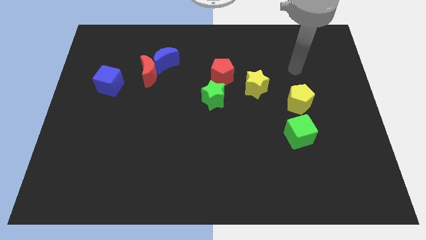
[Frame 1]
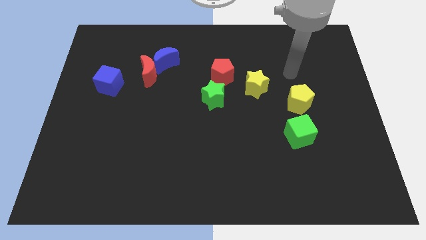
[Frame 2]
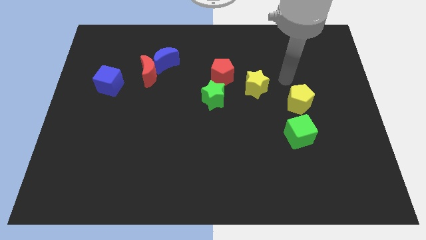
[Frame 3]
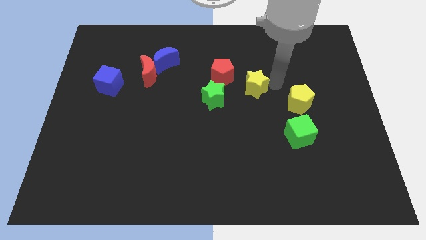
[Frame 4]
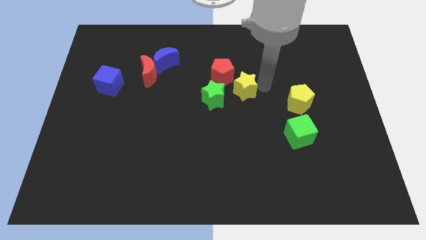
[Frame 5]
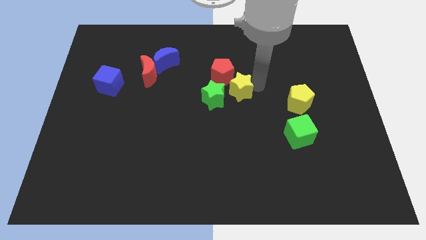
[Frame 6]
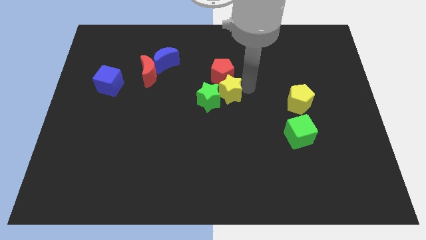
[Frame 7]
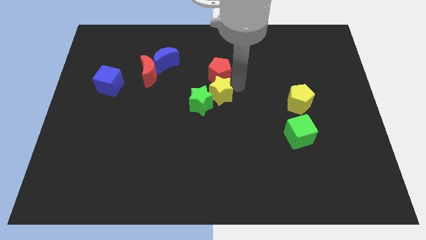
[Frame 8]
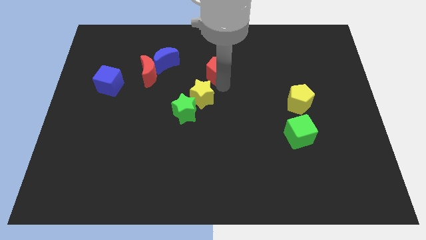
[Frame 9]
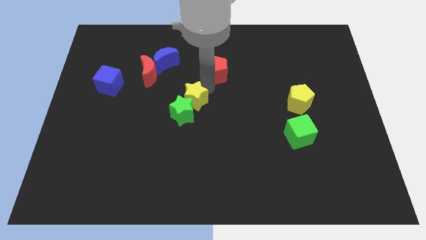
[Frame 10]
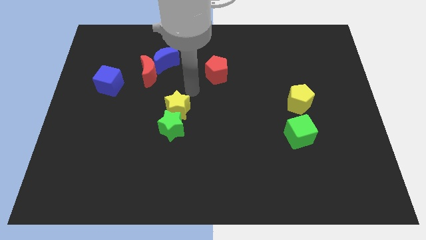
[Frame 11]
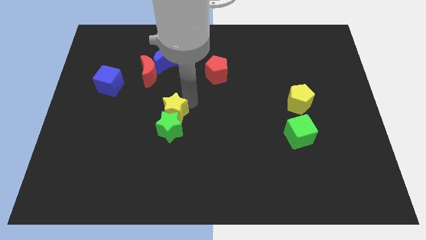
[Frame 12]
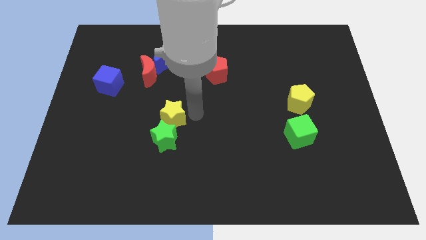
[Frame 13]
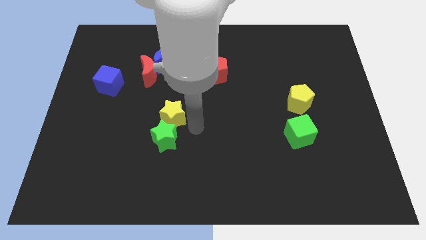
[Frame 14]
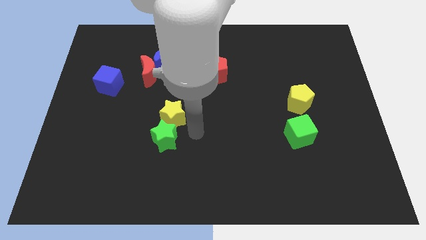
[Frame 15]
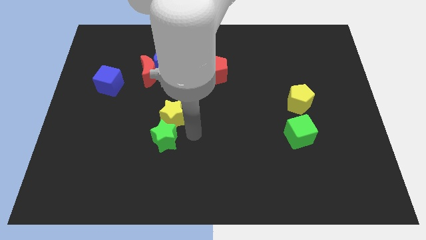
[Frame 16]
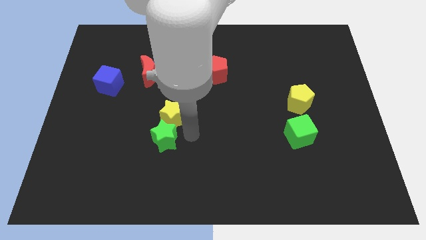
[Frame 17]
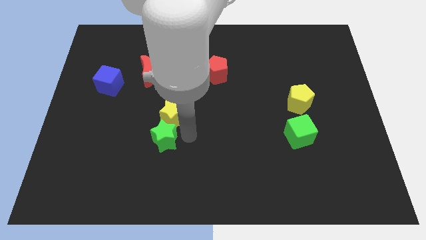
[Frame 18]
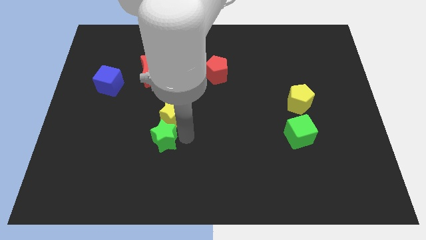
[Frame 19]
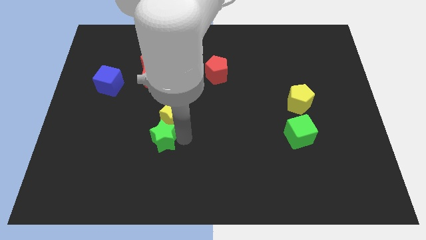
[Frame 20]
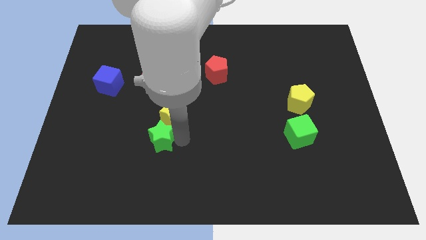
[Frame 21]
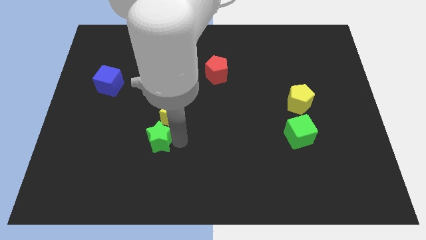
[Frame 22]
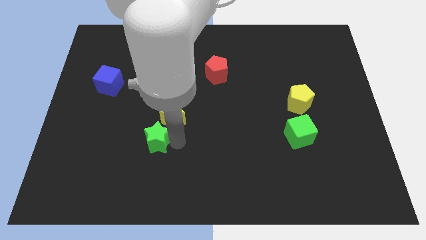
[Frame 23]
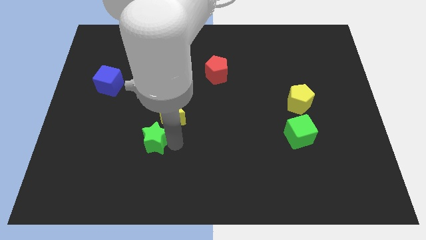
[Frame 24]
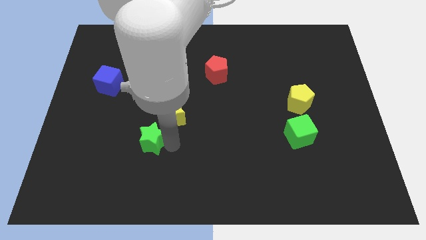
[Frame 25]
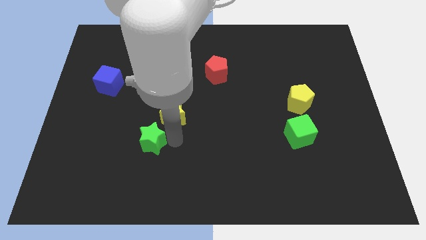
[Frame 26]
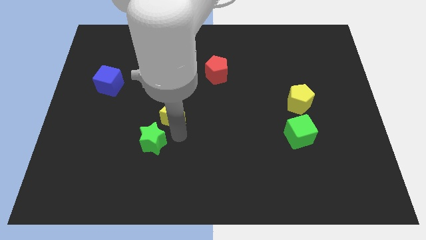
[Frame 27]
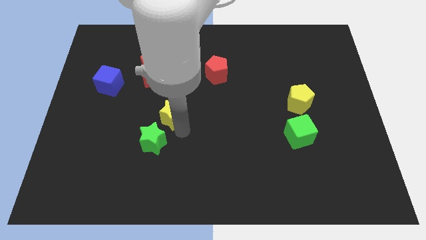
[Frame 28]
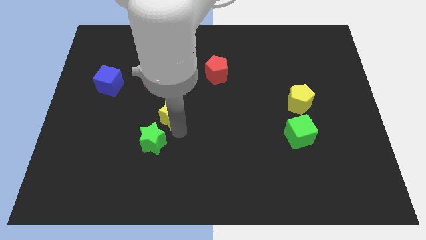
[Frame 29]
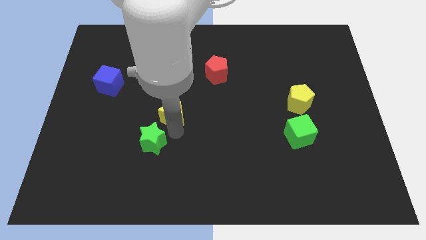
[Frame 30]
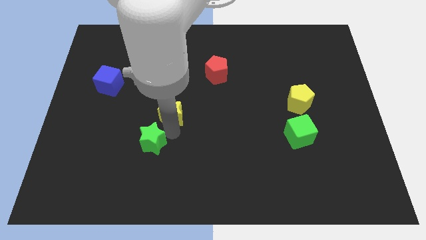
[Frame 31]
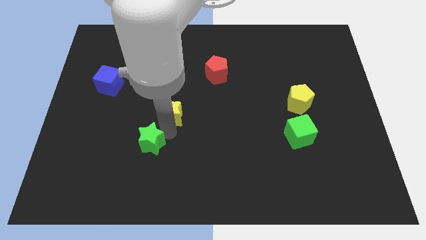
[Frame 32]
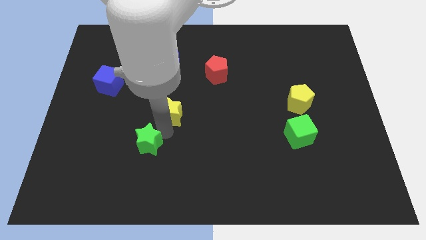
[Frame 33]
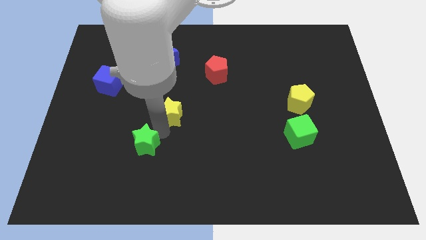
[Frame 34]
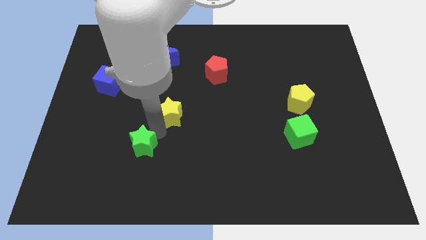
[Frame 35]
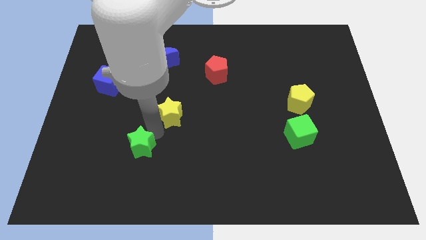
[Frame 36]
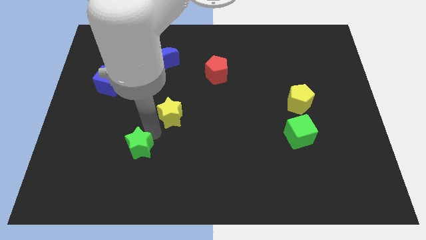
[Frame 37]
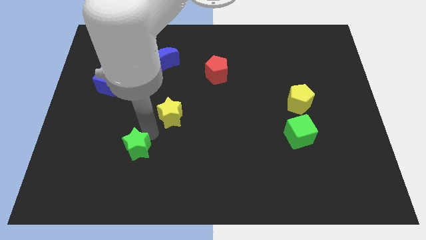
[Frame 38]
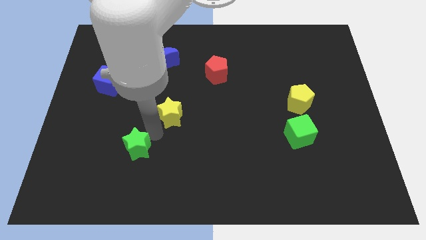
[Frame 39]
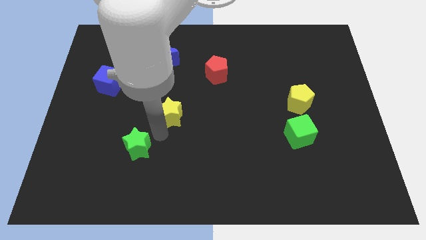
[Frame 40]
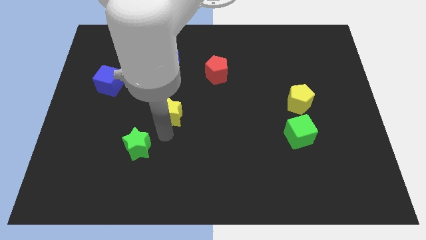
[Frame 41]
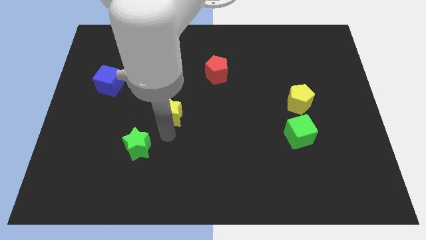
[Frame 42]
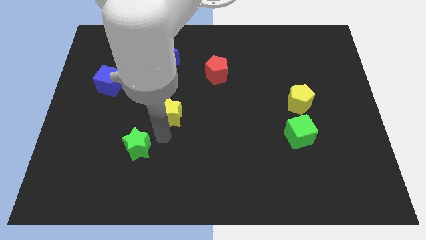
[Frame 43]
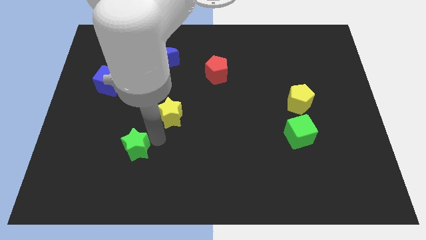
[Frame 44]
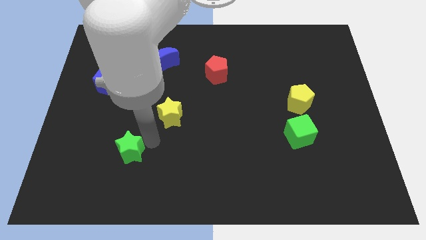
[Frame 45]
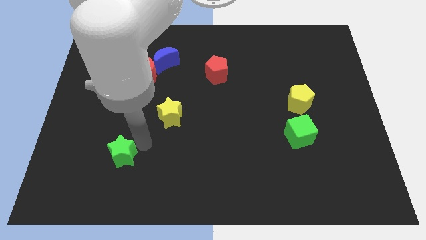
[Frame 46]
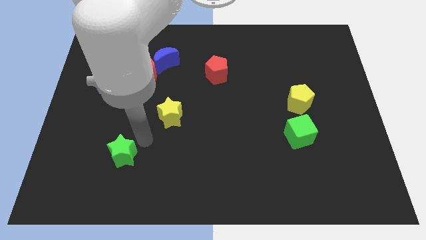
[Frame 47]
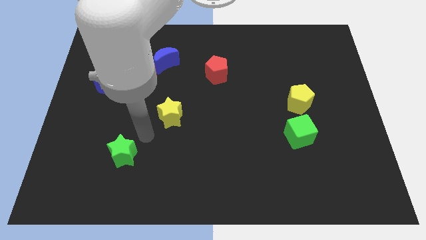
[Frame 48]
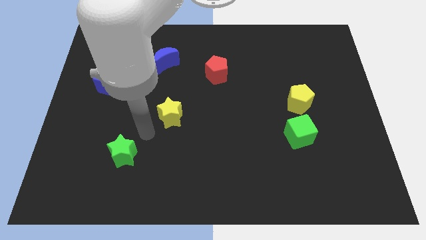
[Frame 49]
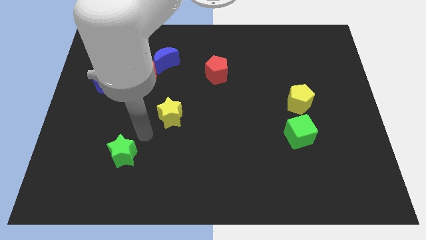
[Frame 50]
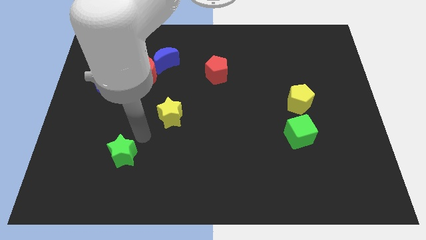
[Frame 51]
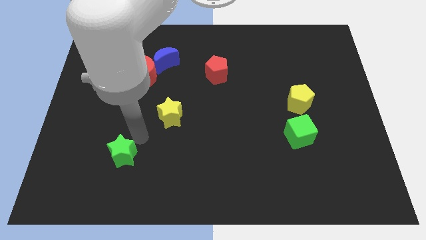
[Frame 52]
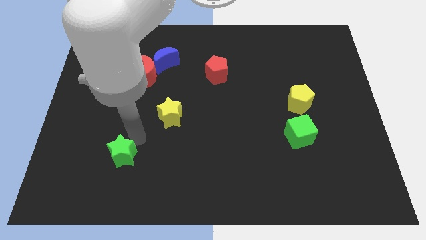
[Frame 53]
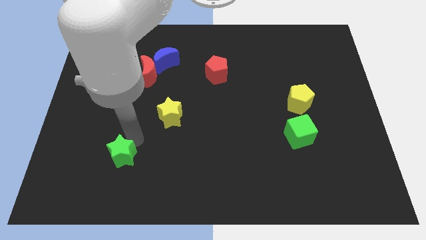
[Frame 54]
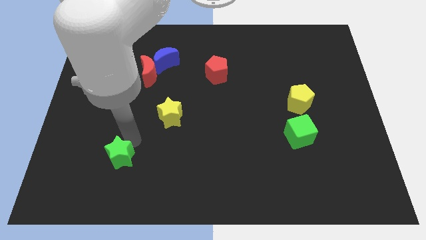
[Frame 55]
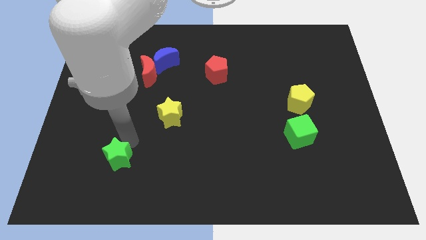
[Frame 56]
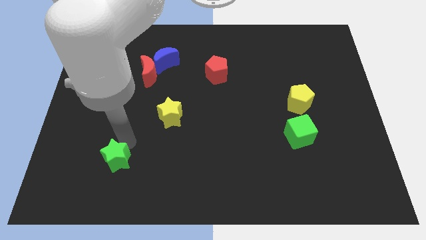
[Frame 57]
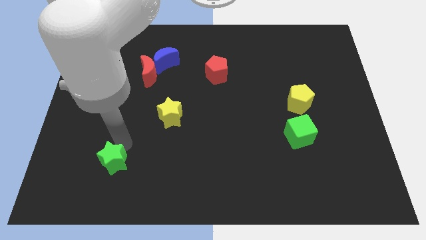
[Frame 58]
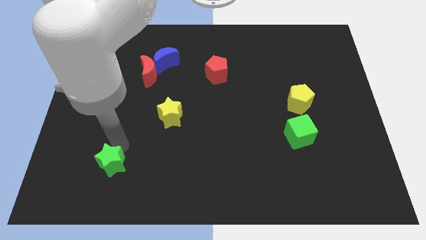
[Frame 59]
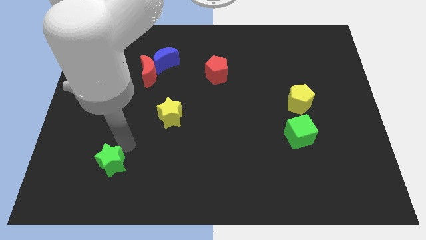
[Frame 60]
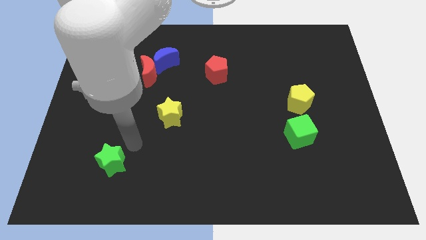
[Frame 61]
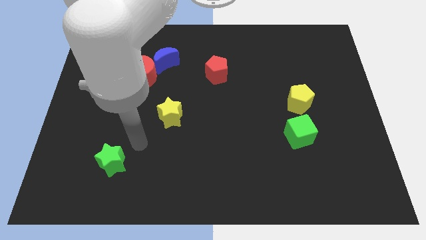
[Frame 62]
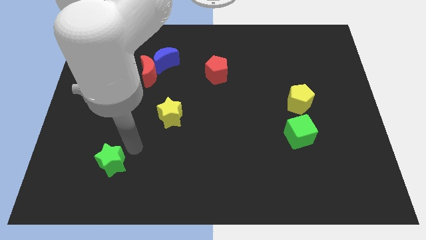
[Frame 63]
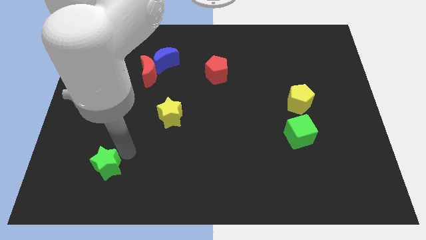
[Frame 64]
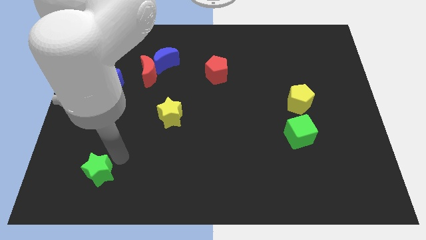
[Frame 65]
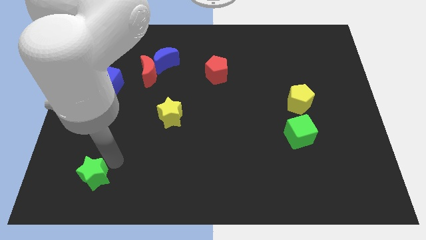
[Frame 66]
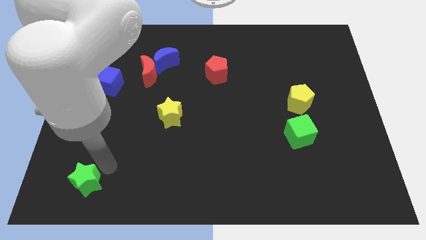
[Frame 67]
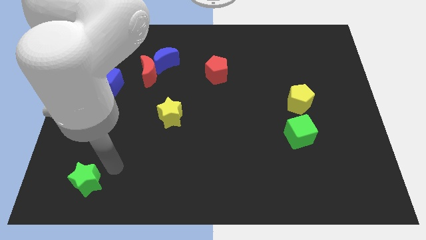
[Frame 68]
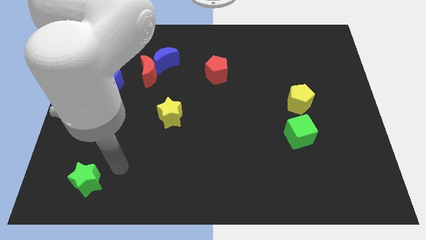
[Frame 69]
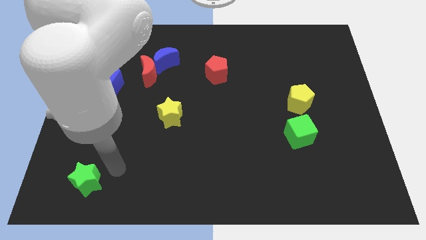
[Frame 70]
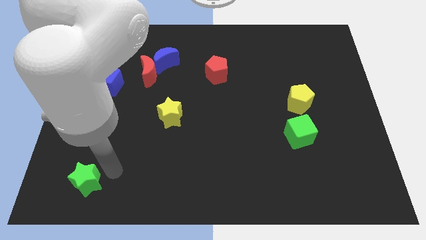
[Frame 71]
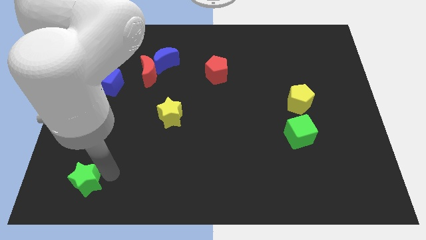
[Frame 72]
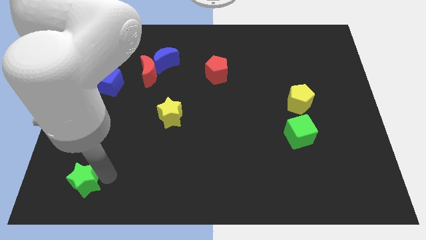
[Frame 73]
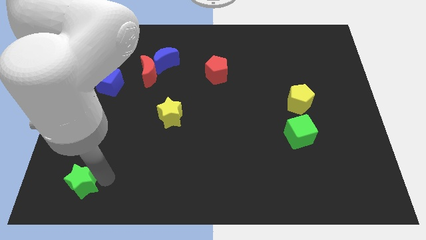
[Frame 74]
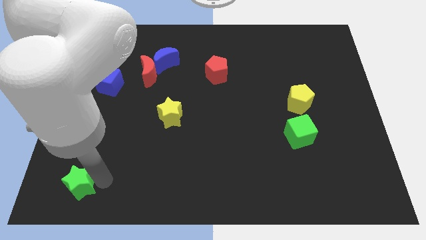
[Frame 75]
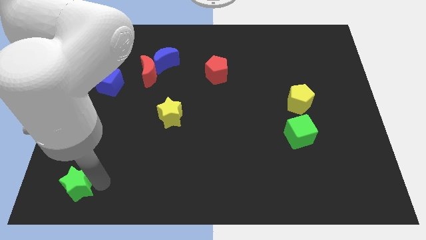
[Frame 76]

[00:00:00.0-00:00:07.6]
put the green star to the lower left corner
